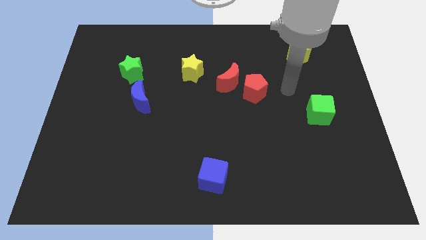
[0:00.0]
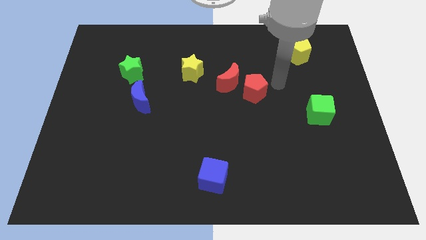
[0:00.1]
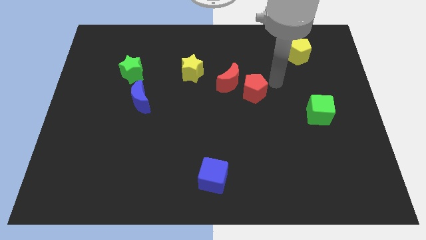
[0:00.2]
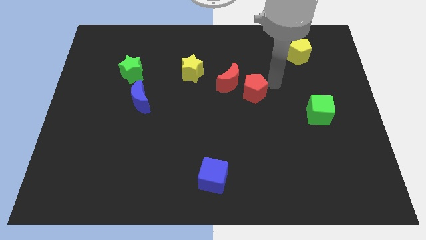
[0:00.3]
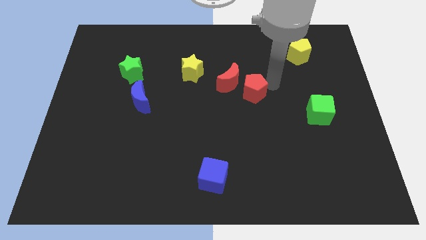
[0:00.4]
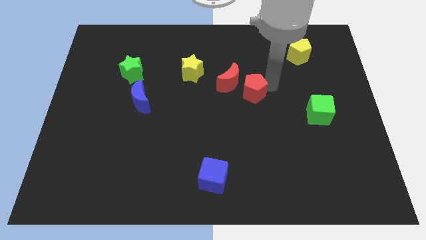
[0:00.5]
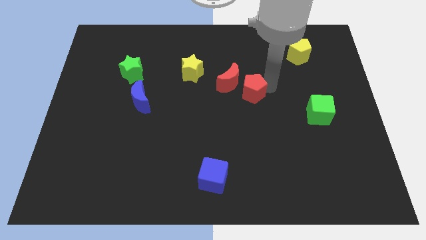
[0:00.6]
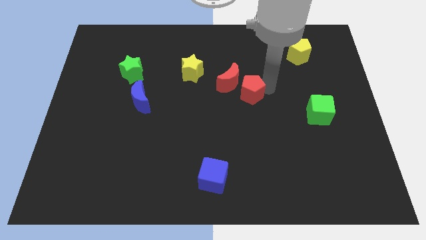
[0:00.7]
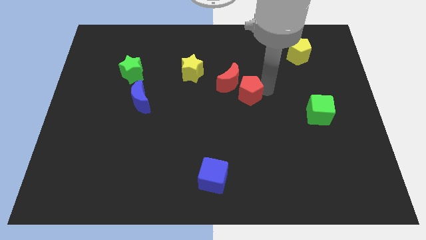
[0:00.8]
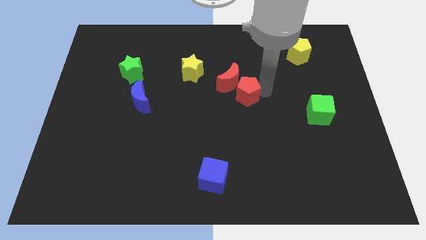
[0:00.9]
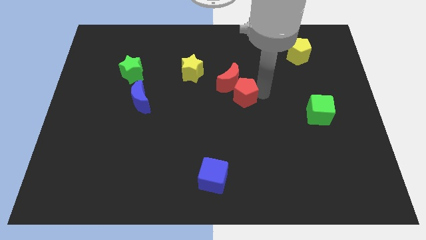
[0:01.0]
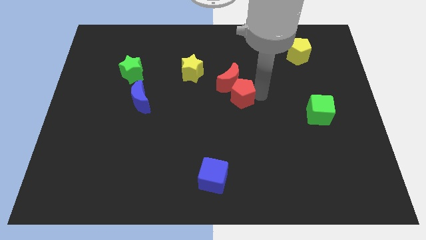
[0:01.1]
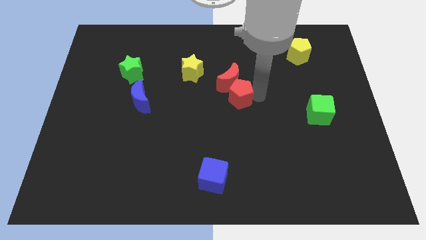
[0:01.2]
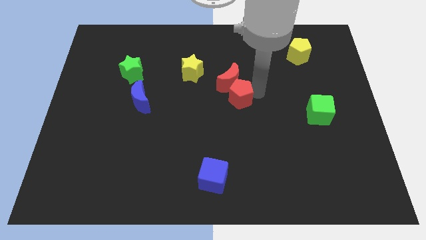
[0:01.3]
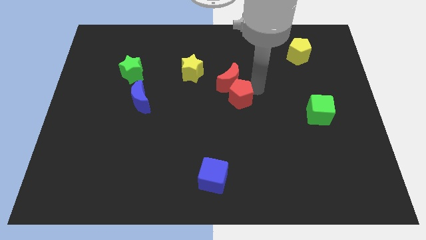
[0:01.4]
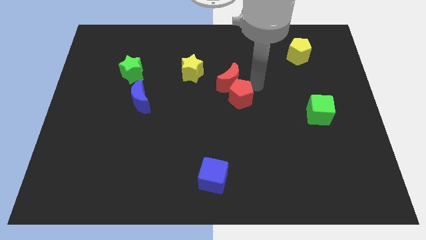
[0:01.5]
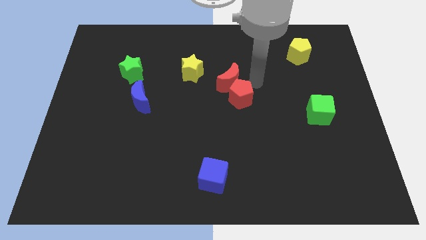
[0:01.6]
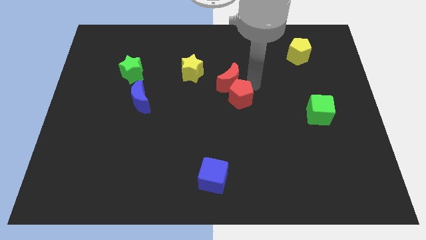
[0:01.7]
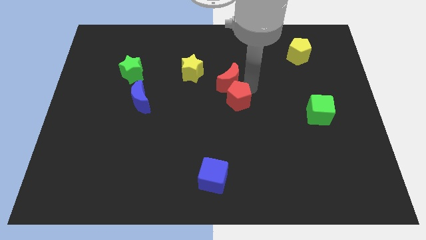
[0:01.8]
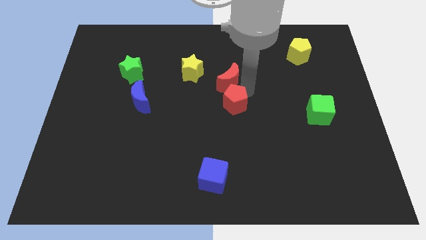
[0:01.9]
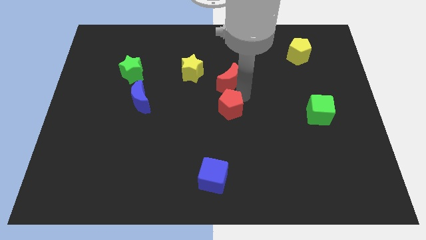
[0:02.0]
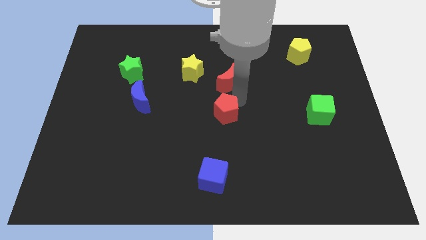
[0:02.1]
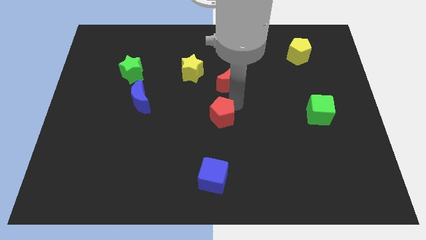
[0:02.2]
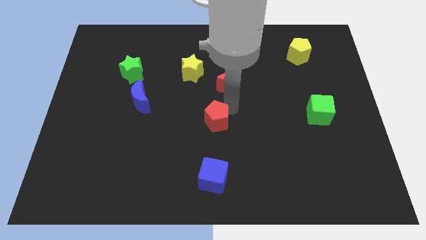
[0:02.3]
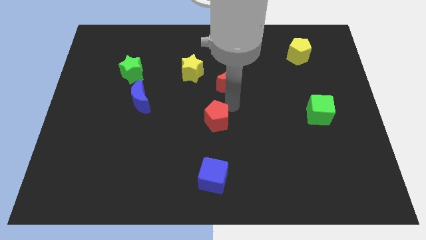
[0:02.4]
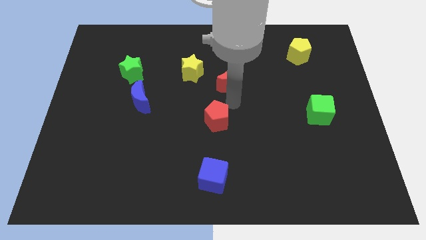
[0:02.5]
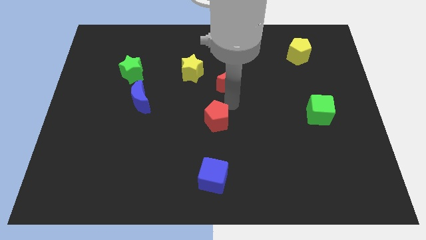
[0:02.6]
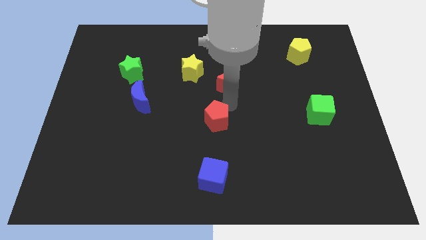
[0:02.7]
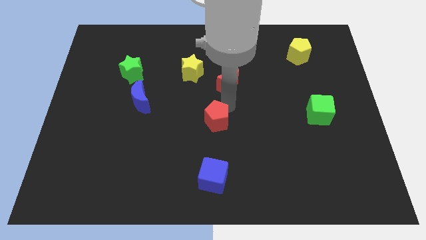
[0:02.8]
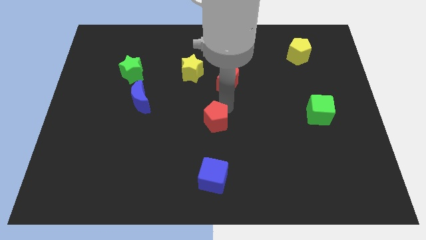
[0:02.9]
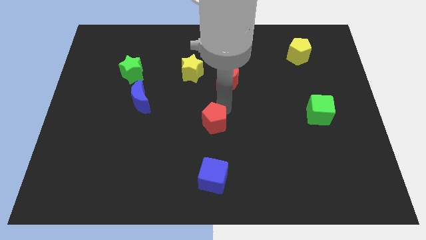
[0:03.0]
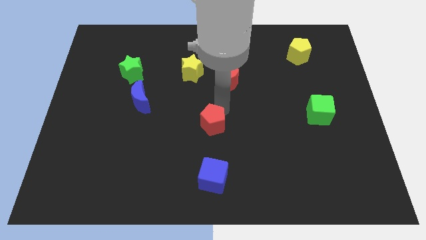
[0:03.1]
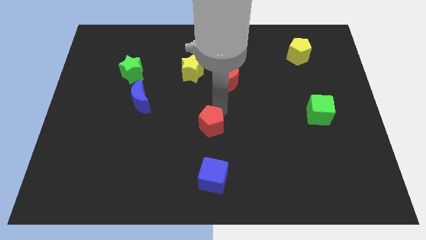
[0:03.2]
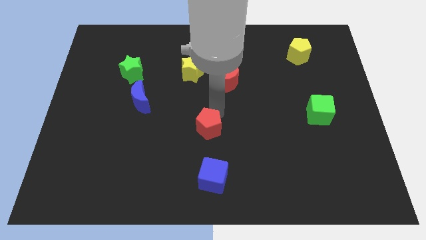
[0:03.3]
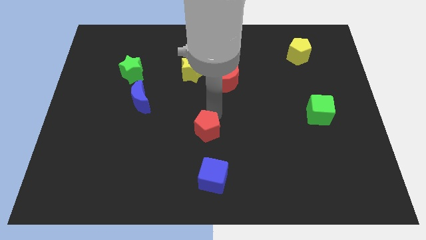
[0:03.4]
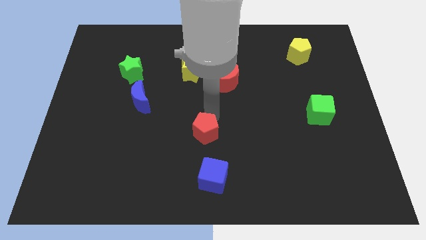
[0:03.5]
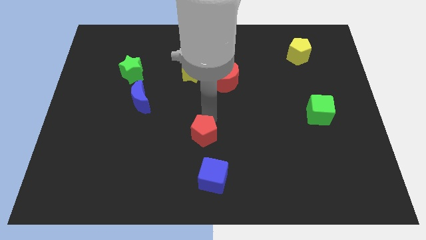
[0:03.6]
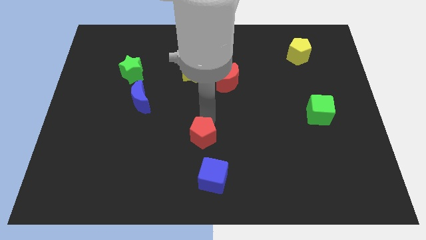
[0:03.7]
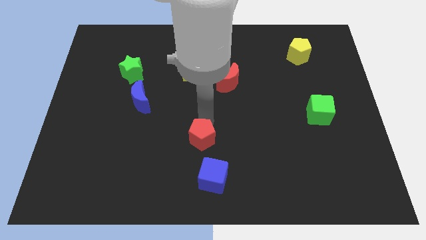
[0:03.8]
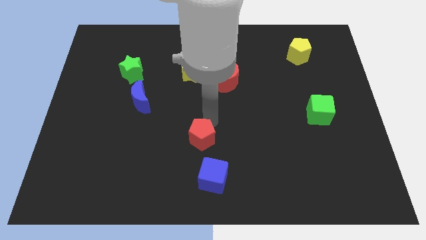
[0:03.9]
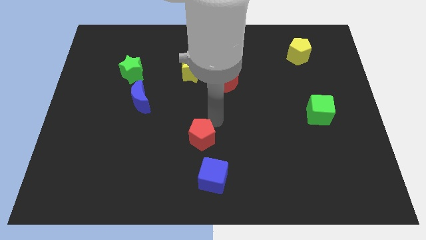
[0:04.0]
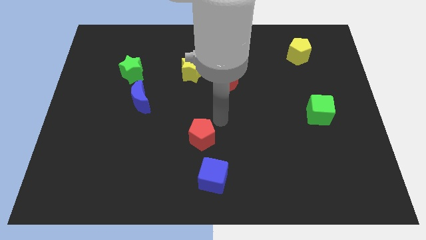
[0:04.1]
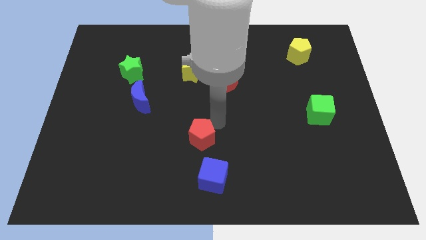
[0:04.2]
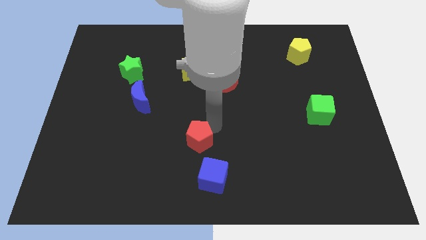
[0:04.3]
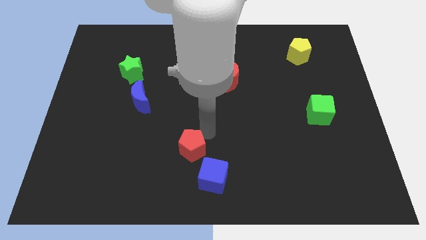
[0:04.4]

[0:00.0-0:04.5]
slide the red pentagon down and to the left

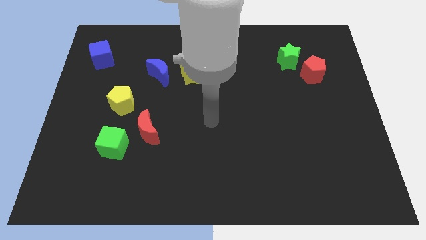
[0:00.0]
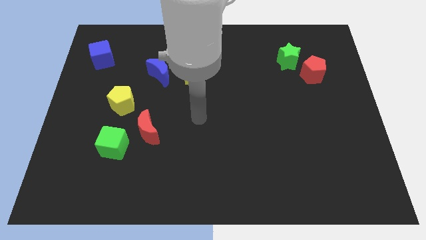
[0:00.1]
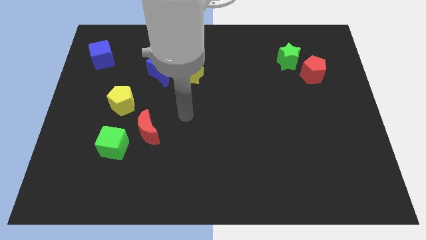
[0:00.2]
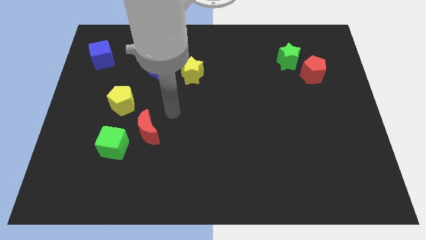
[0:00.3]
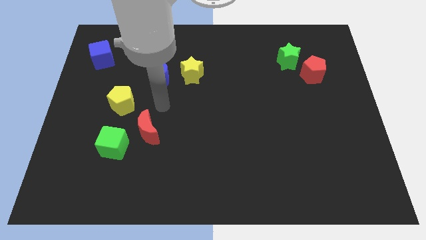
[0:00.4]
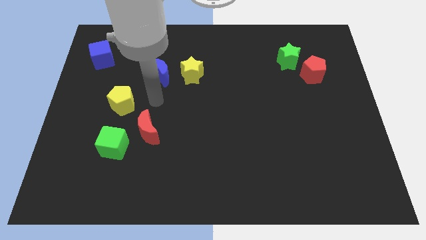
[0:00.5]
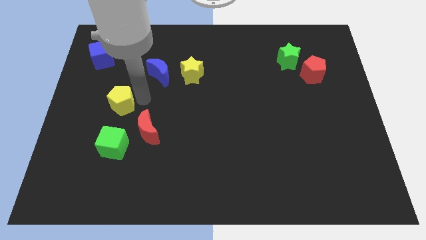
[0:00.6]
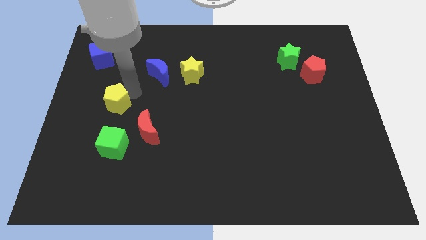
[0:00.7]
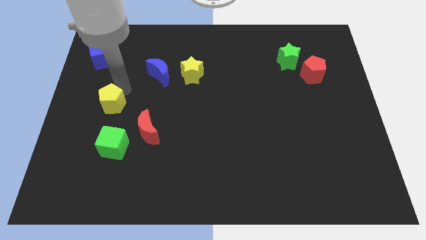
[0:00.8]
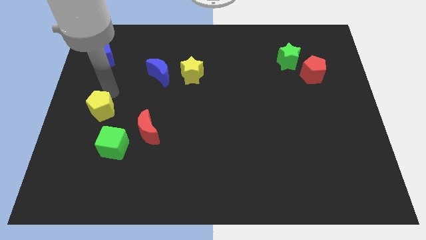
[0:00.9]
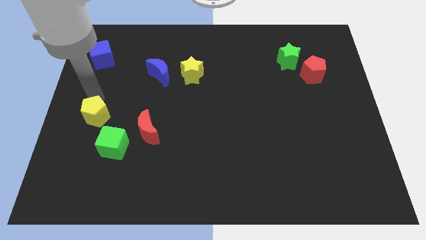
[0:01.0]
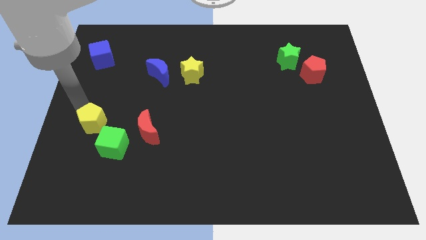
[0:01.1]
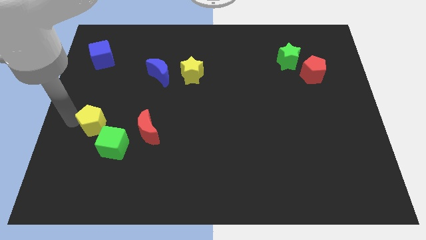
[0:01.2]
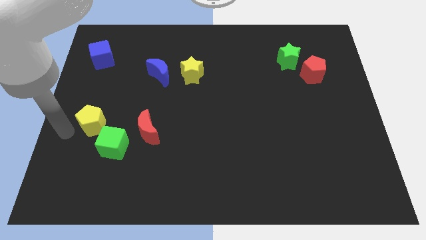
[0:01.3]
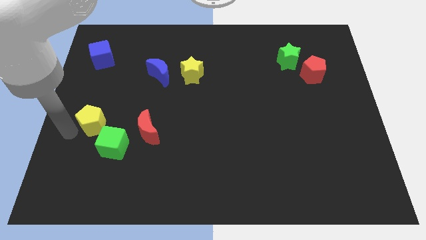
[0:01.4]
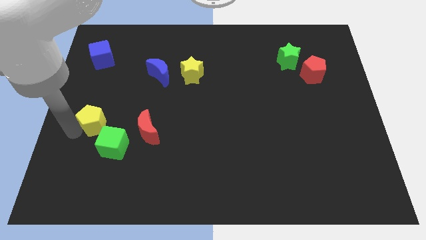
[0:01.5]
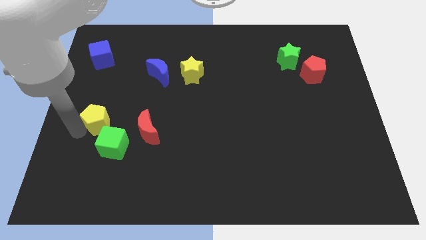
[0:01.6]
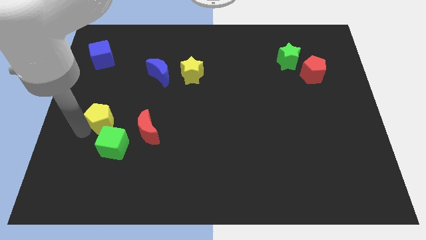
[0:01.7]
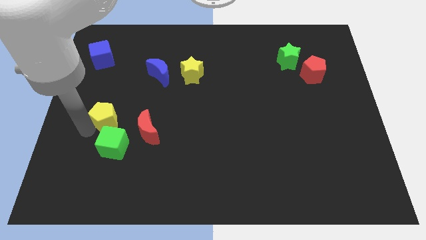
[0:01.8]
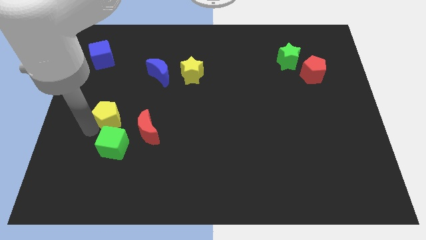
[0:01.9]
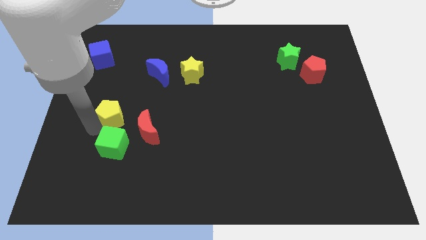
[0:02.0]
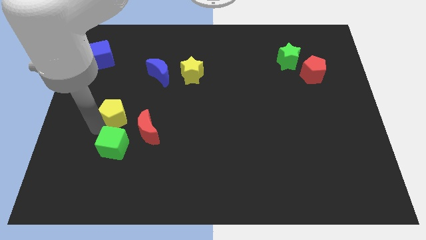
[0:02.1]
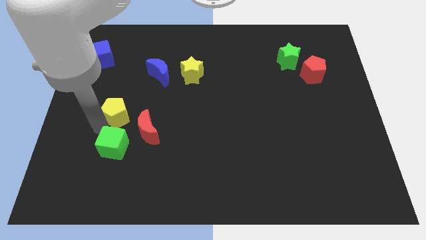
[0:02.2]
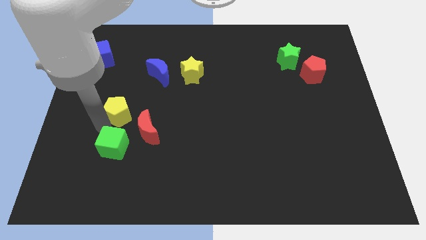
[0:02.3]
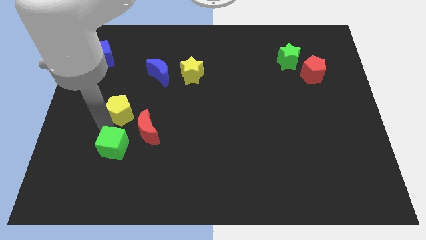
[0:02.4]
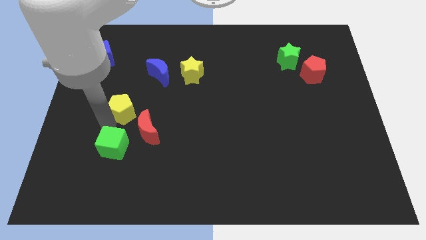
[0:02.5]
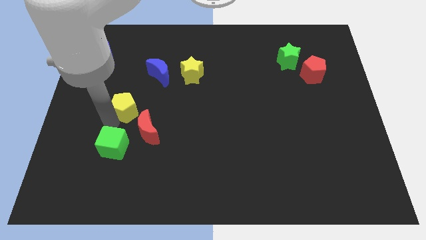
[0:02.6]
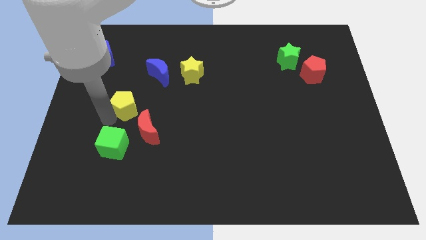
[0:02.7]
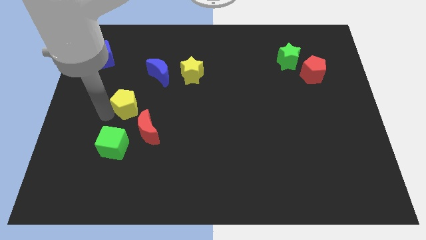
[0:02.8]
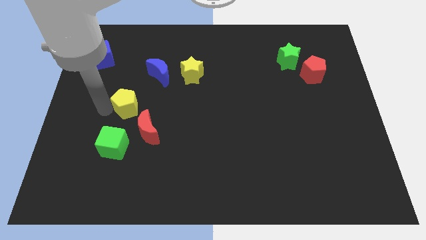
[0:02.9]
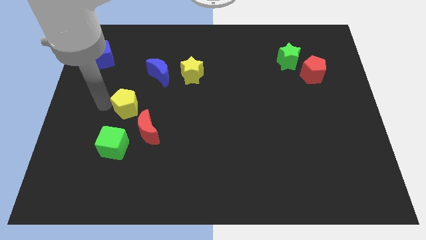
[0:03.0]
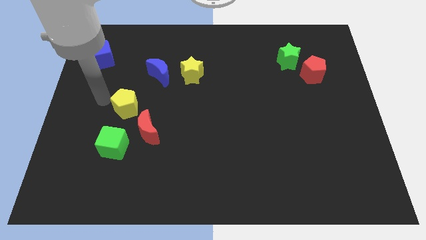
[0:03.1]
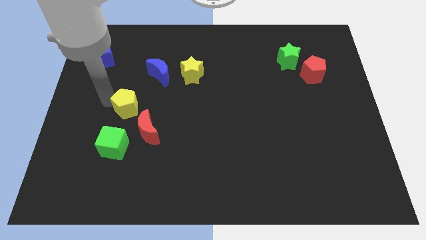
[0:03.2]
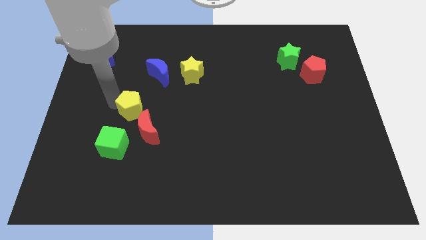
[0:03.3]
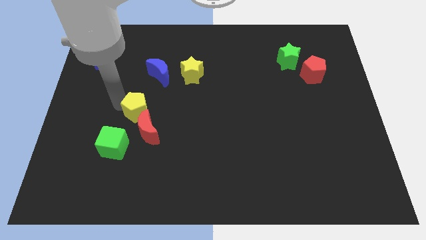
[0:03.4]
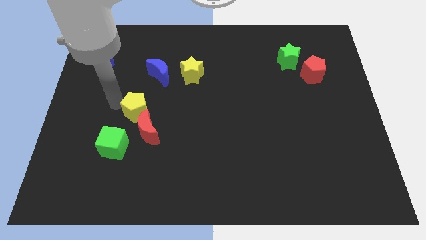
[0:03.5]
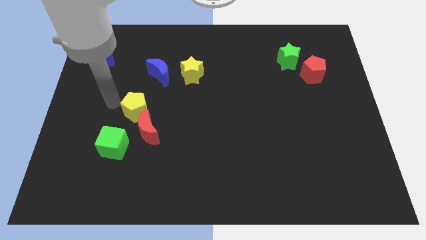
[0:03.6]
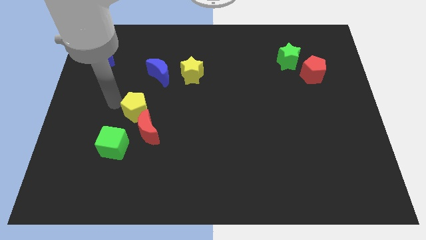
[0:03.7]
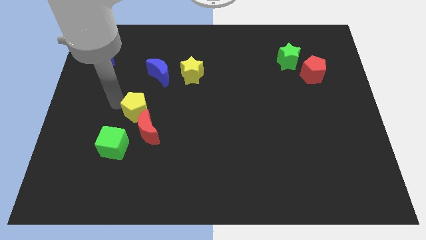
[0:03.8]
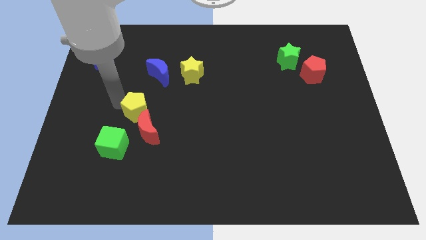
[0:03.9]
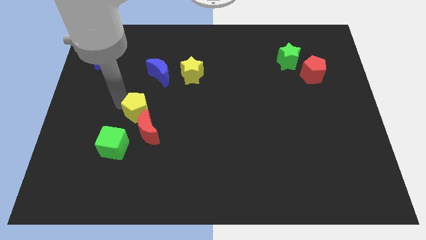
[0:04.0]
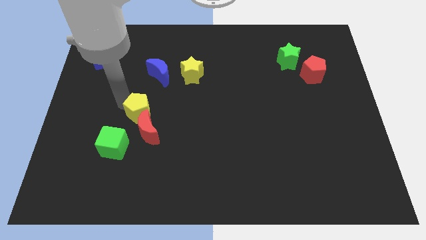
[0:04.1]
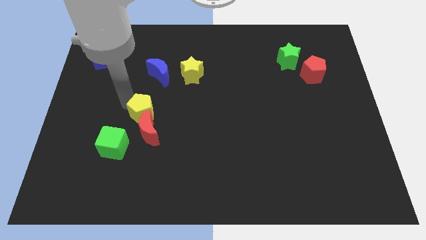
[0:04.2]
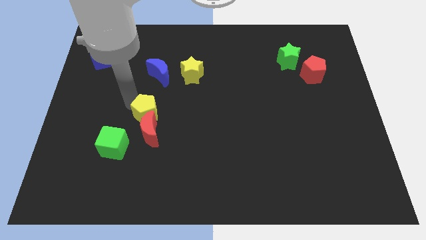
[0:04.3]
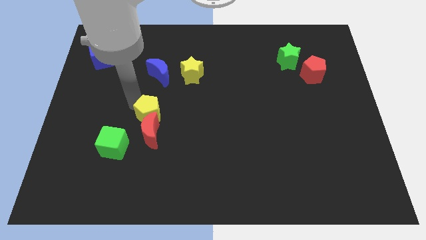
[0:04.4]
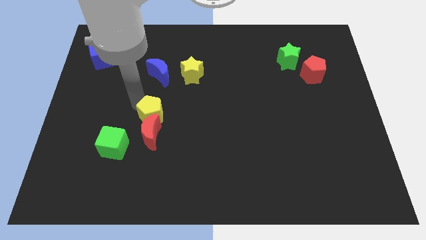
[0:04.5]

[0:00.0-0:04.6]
push the yellow pentagon a little bit downwards and right
